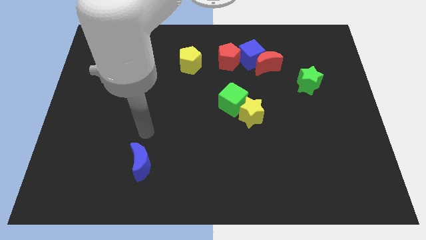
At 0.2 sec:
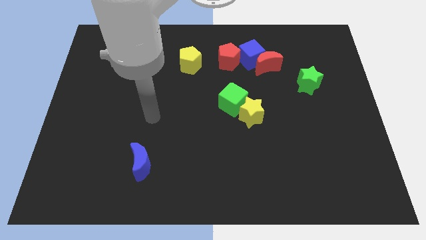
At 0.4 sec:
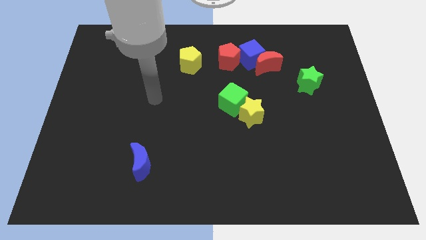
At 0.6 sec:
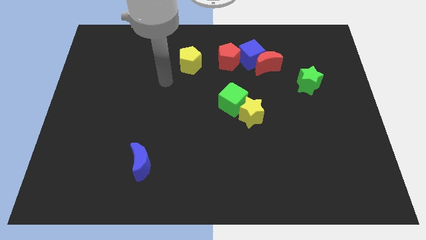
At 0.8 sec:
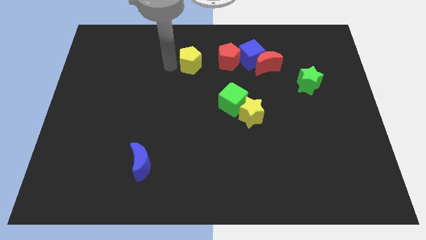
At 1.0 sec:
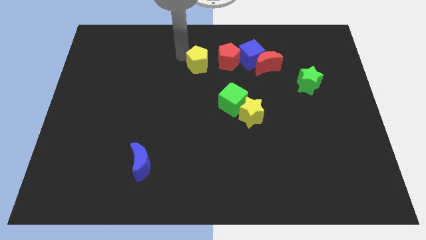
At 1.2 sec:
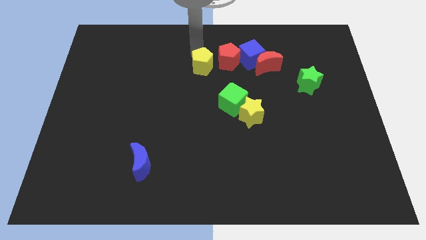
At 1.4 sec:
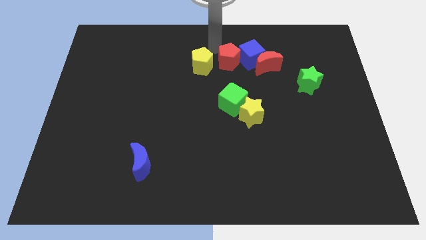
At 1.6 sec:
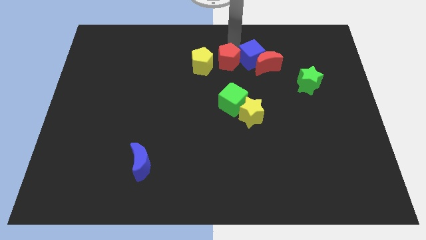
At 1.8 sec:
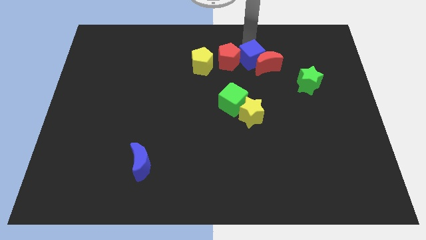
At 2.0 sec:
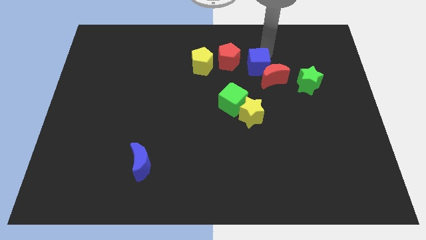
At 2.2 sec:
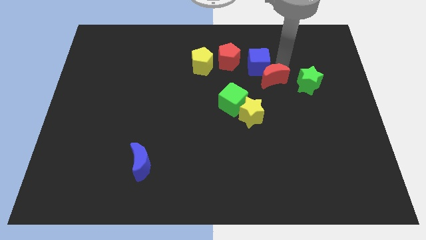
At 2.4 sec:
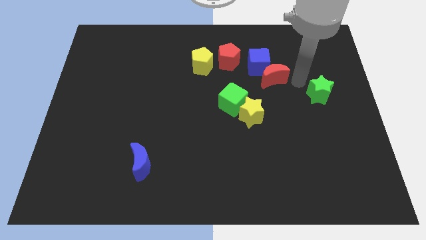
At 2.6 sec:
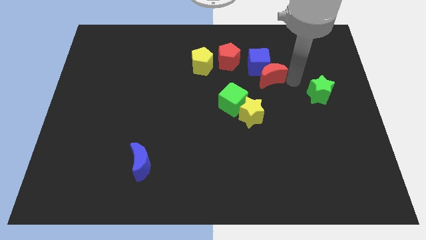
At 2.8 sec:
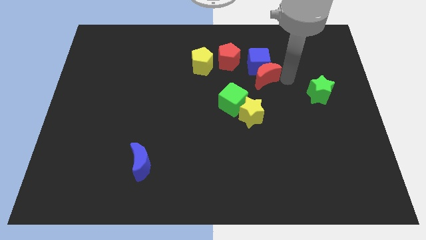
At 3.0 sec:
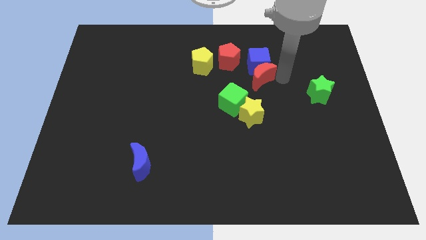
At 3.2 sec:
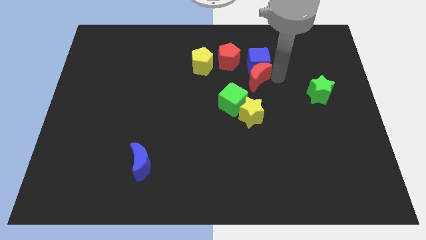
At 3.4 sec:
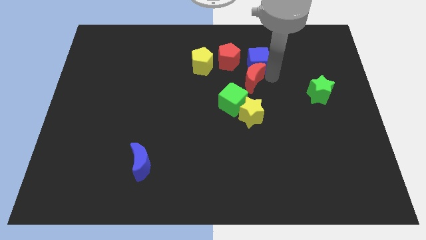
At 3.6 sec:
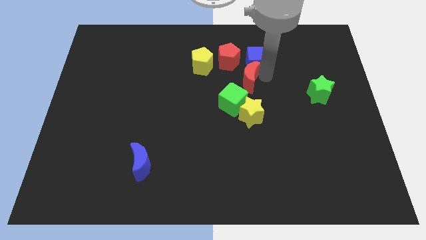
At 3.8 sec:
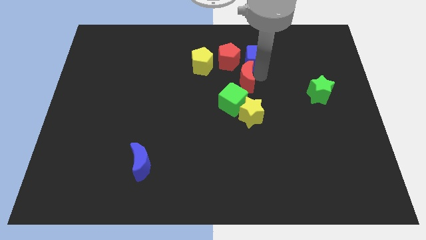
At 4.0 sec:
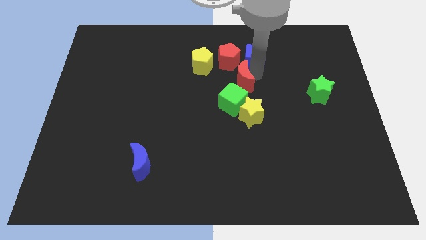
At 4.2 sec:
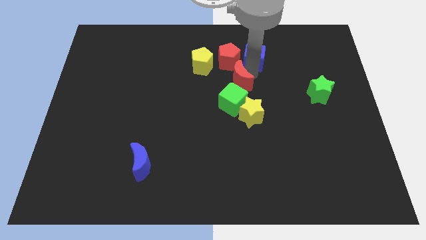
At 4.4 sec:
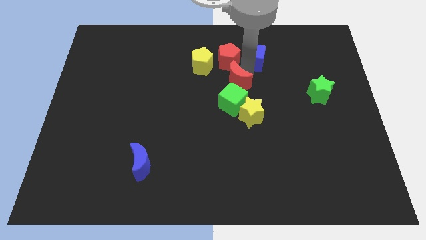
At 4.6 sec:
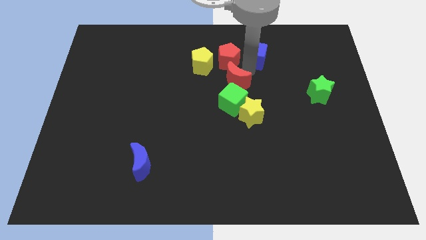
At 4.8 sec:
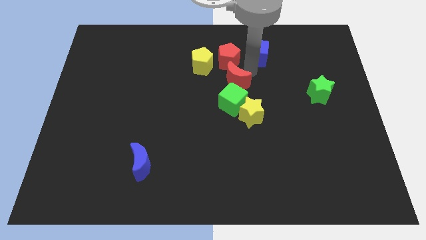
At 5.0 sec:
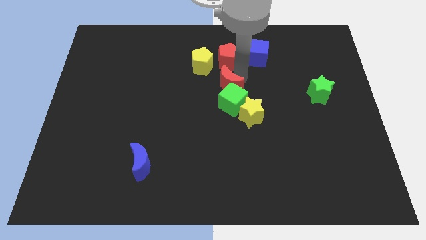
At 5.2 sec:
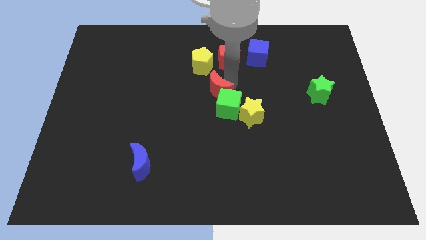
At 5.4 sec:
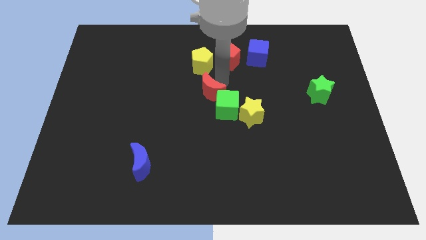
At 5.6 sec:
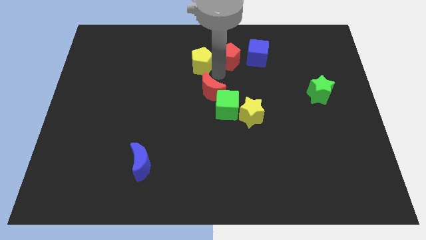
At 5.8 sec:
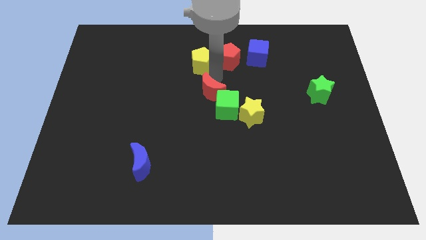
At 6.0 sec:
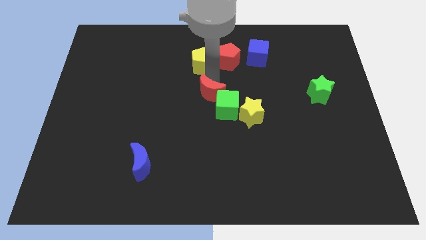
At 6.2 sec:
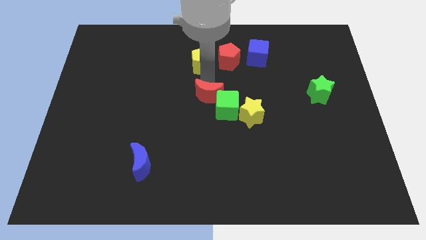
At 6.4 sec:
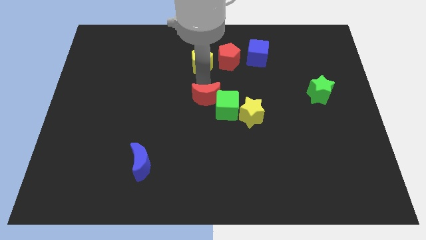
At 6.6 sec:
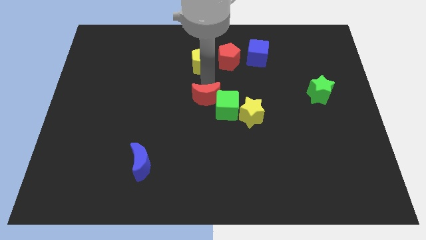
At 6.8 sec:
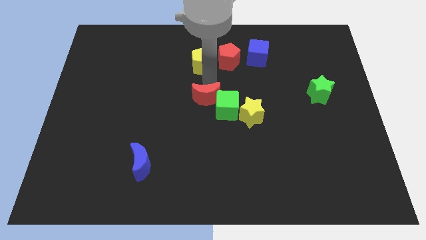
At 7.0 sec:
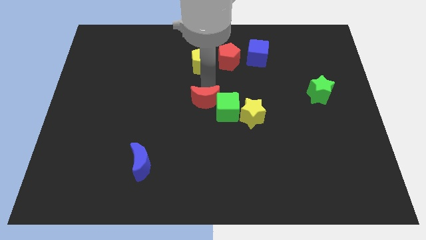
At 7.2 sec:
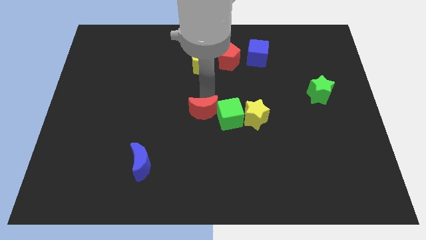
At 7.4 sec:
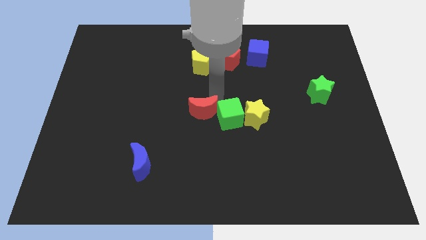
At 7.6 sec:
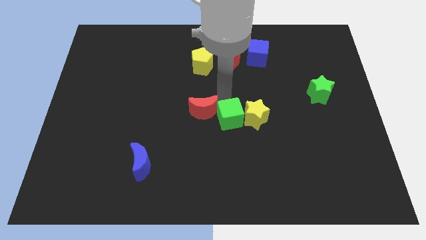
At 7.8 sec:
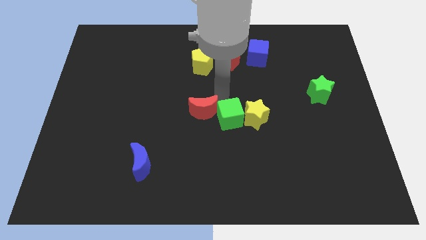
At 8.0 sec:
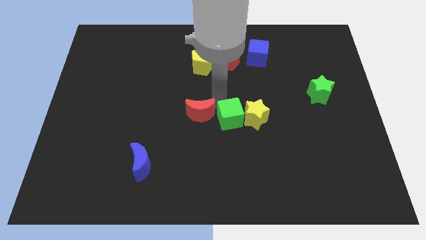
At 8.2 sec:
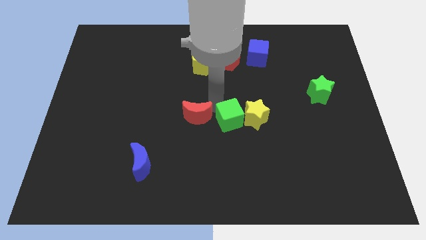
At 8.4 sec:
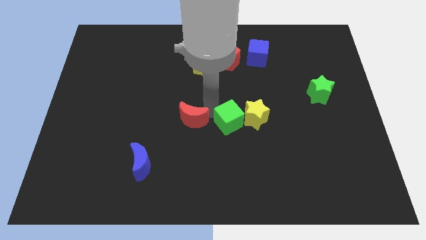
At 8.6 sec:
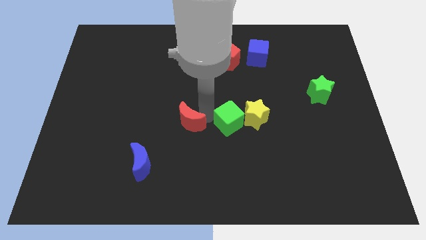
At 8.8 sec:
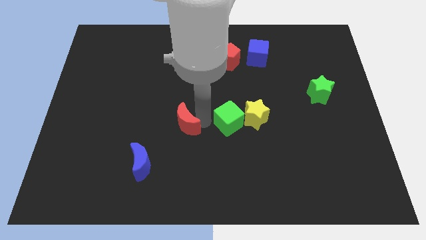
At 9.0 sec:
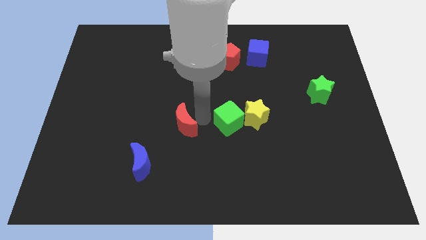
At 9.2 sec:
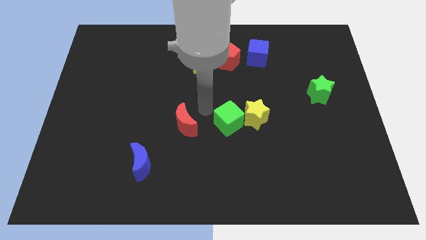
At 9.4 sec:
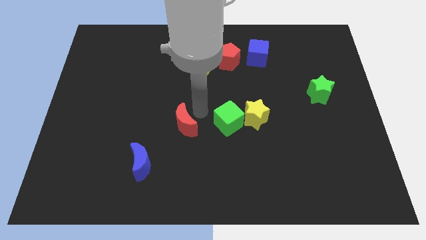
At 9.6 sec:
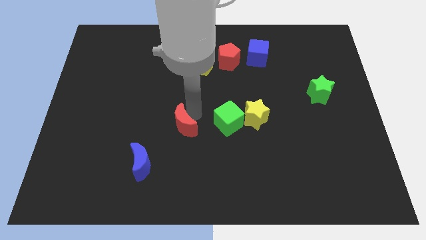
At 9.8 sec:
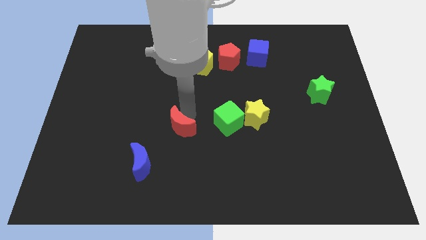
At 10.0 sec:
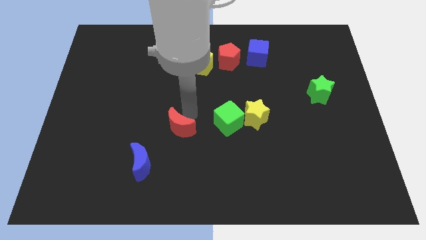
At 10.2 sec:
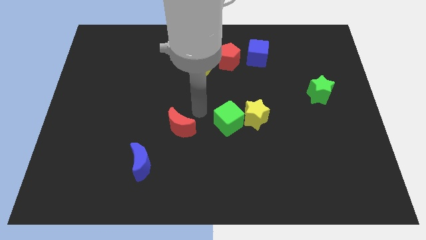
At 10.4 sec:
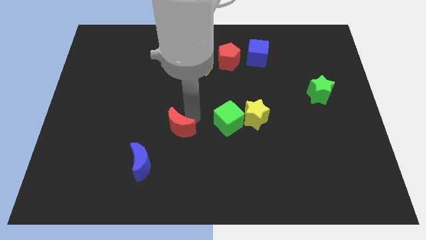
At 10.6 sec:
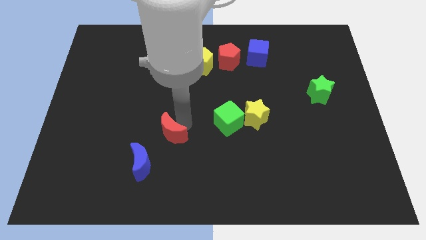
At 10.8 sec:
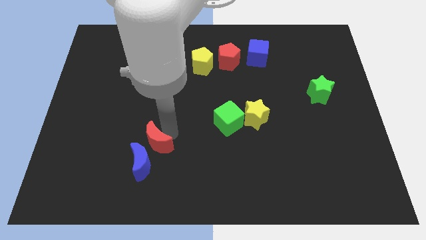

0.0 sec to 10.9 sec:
push the red moon next to the blue moon

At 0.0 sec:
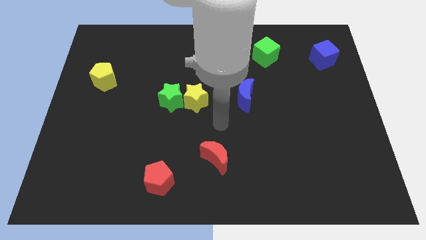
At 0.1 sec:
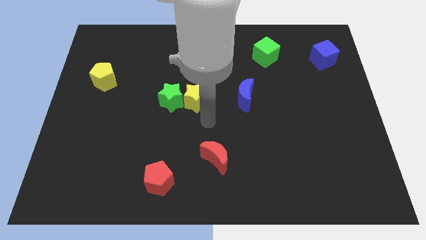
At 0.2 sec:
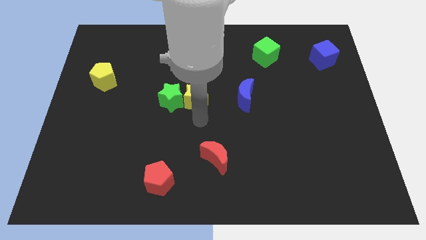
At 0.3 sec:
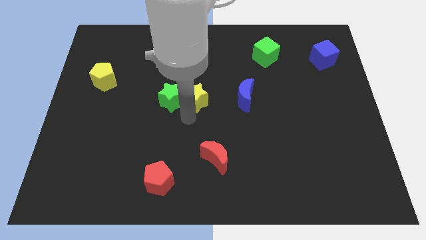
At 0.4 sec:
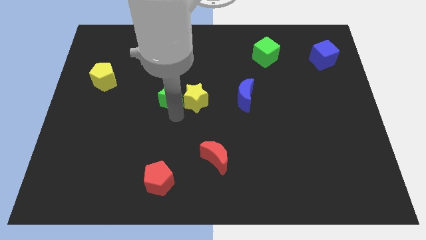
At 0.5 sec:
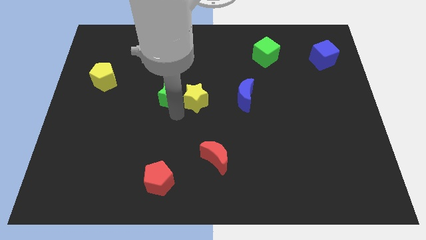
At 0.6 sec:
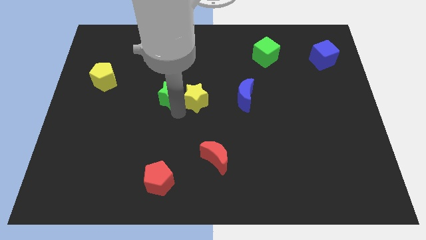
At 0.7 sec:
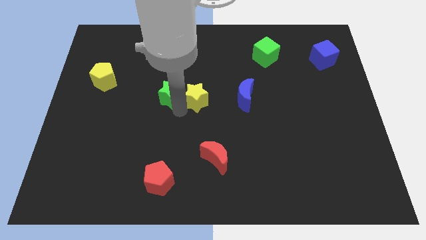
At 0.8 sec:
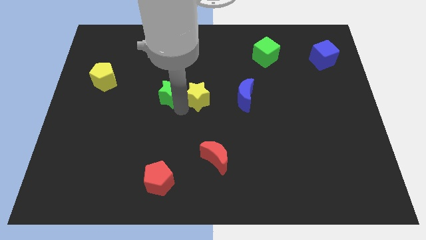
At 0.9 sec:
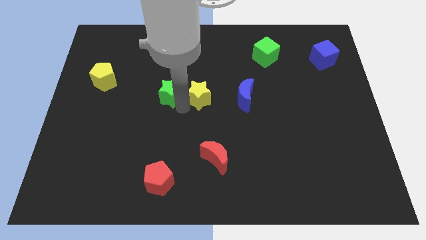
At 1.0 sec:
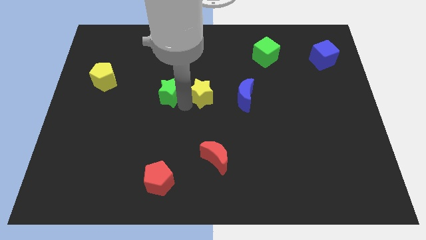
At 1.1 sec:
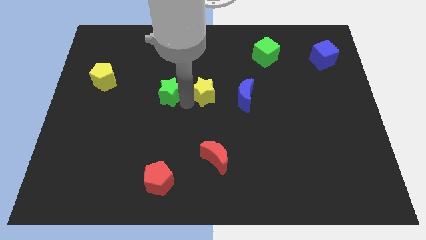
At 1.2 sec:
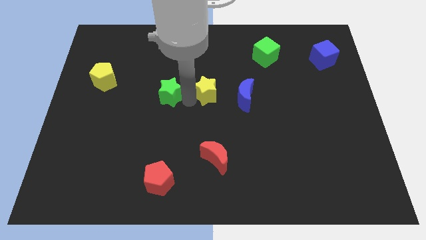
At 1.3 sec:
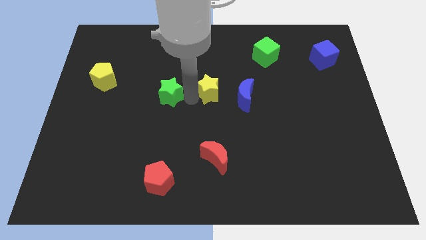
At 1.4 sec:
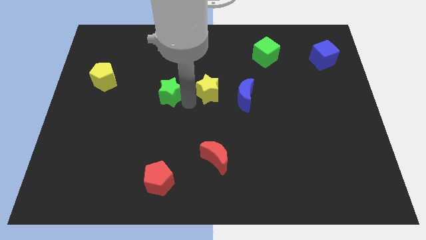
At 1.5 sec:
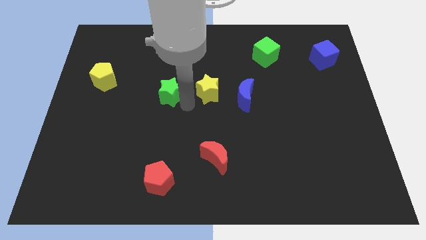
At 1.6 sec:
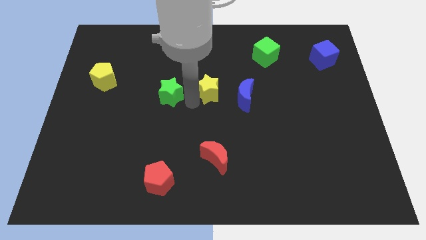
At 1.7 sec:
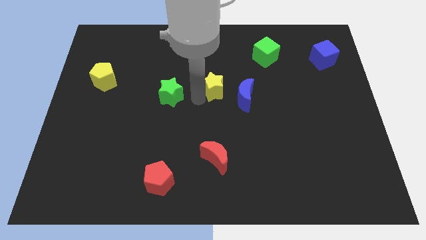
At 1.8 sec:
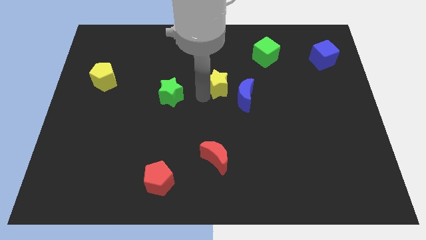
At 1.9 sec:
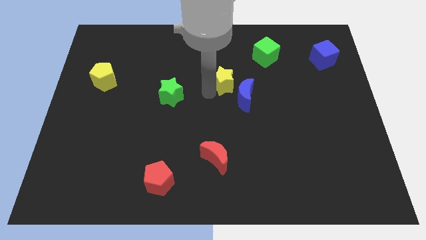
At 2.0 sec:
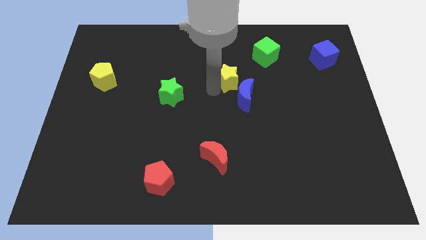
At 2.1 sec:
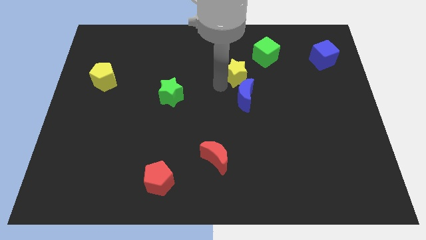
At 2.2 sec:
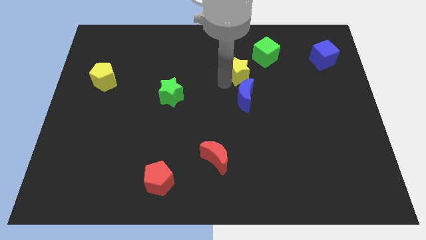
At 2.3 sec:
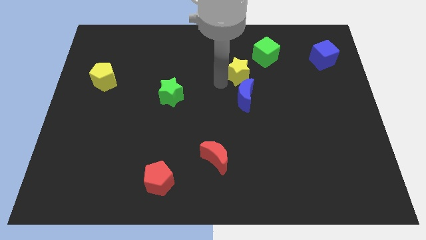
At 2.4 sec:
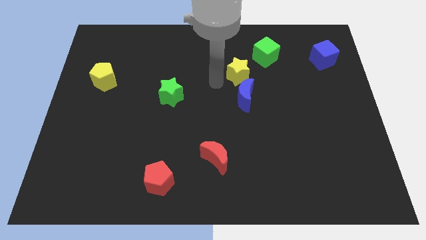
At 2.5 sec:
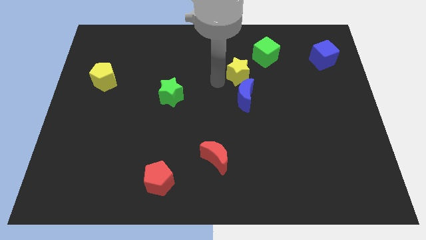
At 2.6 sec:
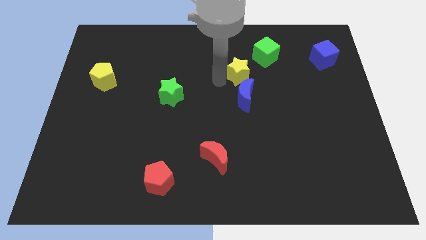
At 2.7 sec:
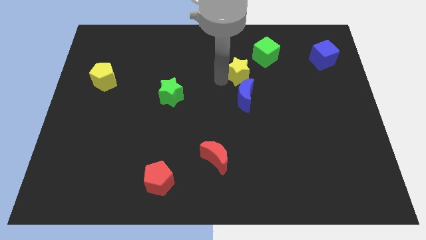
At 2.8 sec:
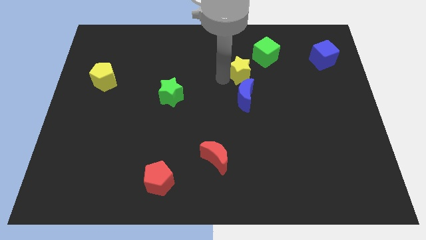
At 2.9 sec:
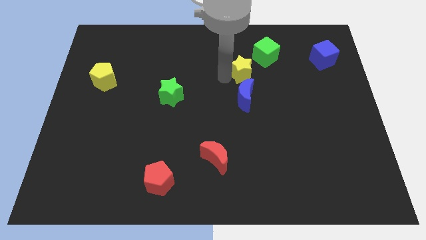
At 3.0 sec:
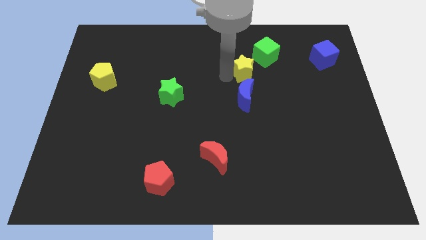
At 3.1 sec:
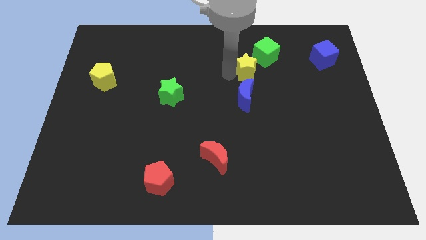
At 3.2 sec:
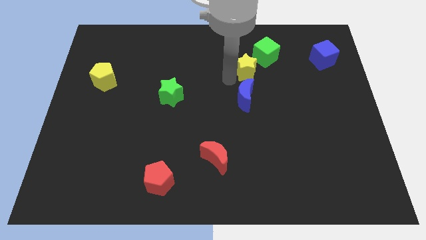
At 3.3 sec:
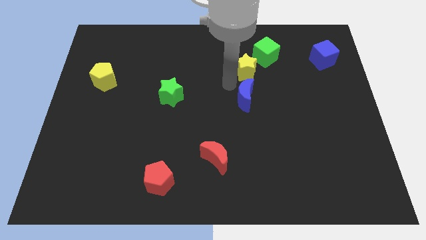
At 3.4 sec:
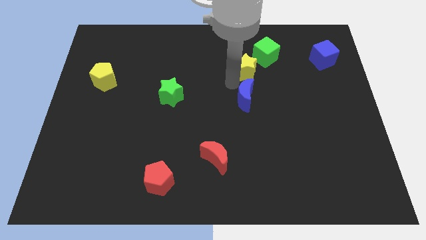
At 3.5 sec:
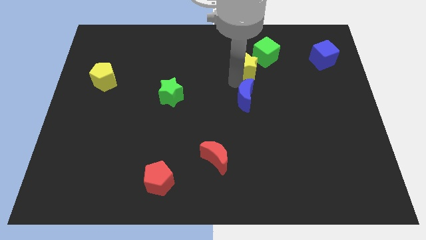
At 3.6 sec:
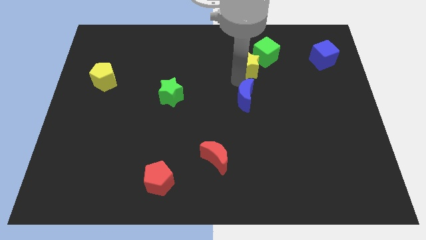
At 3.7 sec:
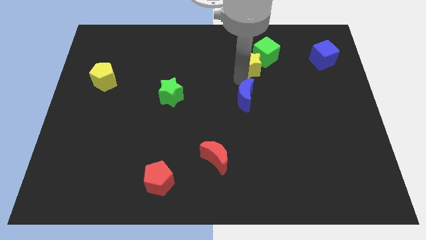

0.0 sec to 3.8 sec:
slide the yellow star close to the green cube
